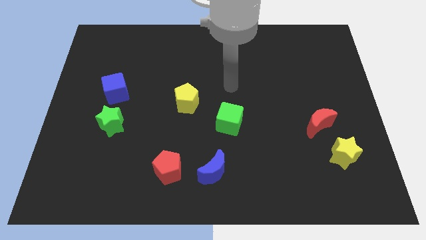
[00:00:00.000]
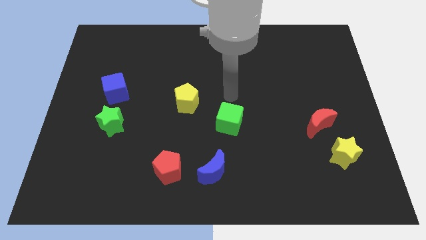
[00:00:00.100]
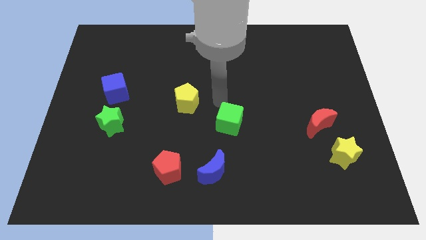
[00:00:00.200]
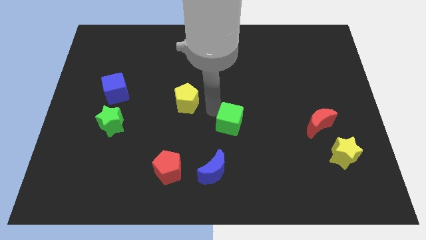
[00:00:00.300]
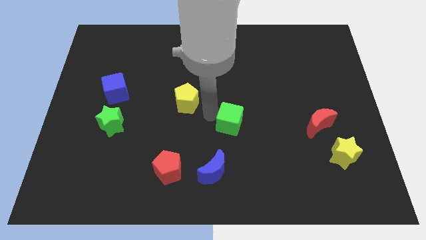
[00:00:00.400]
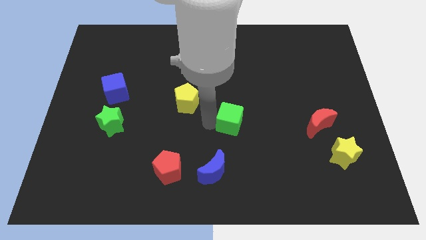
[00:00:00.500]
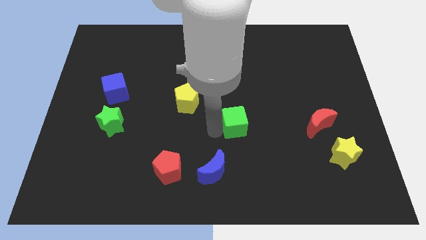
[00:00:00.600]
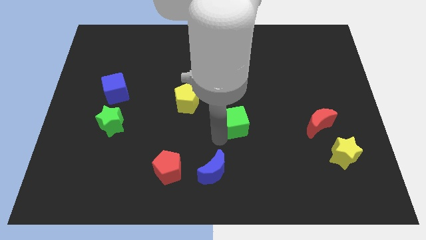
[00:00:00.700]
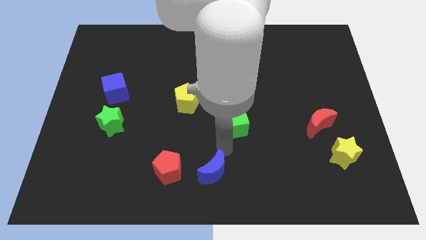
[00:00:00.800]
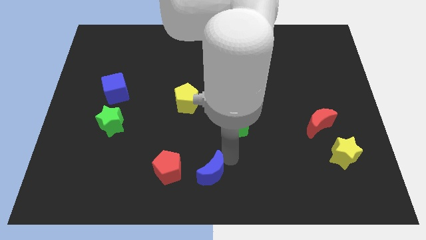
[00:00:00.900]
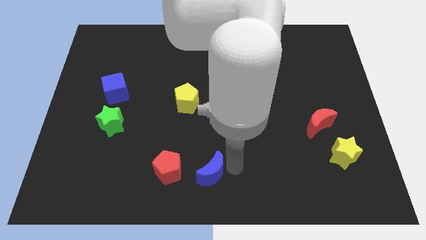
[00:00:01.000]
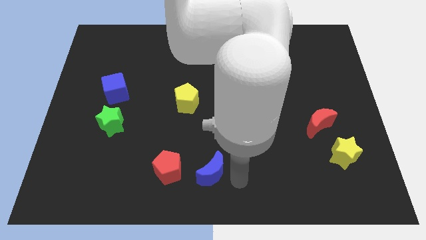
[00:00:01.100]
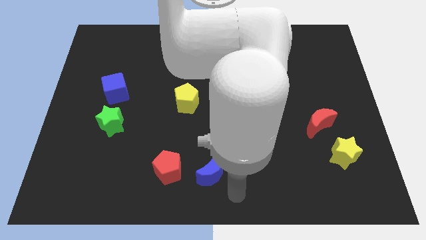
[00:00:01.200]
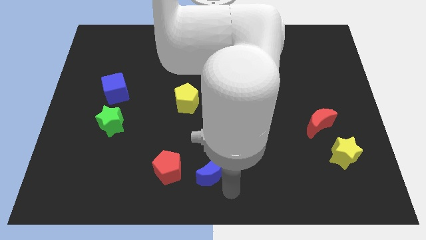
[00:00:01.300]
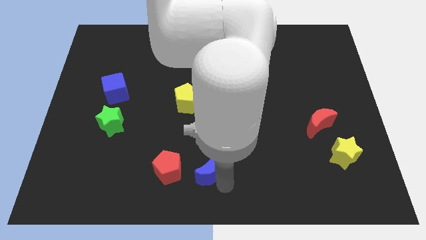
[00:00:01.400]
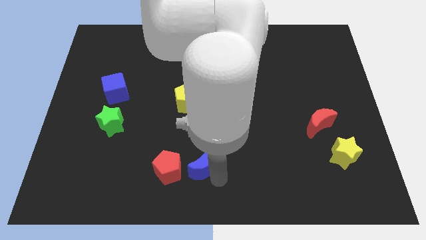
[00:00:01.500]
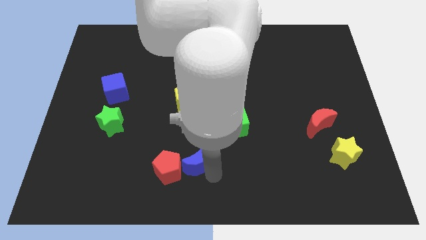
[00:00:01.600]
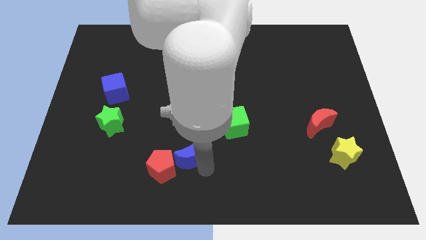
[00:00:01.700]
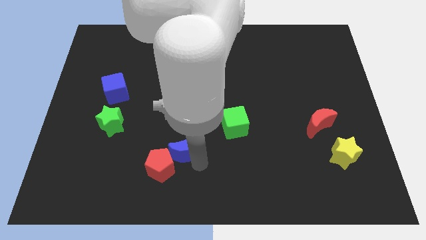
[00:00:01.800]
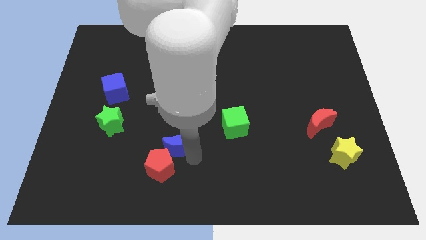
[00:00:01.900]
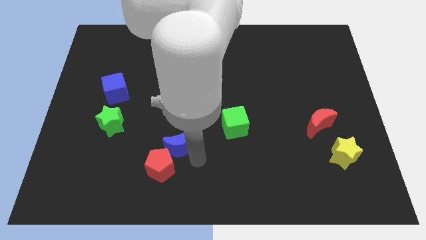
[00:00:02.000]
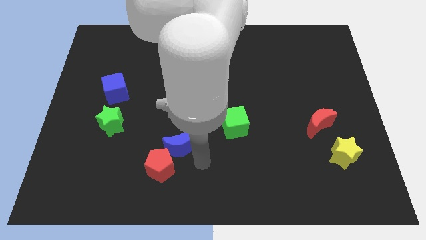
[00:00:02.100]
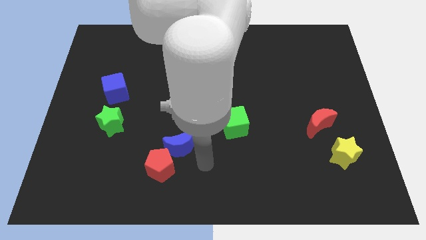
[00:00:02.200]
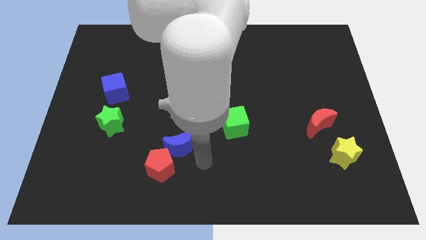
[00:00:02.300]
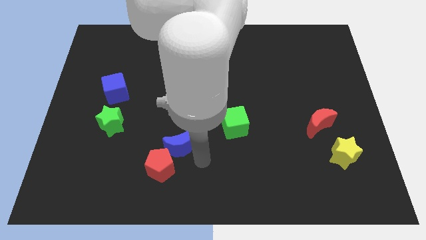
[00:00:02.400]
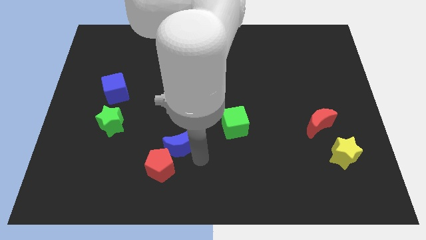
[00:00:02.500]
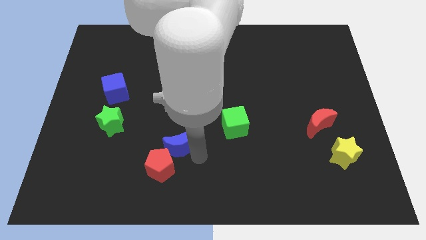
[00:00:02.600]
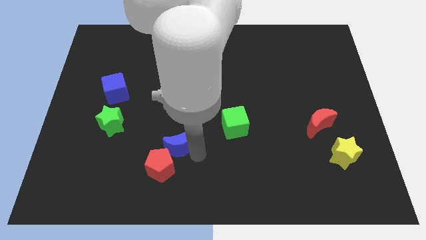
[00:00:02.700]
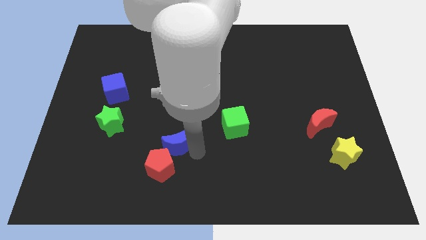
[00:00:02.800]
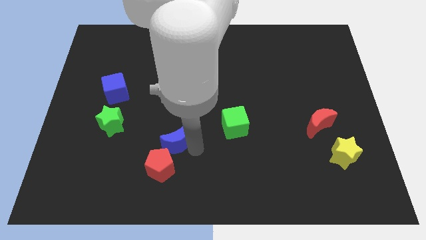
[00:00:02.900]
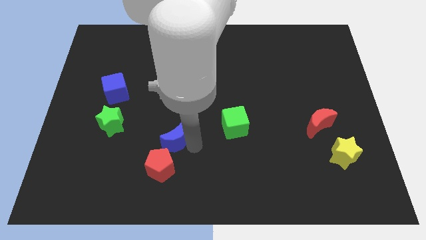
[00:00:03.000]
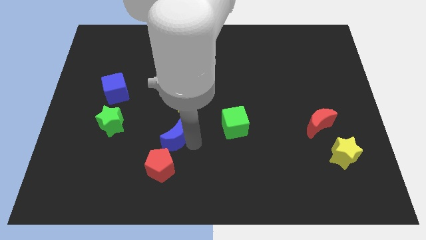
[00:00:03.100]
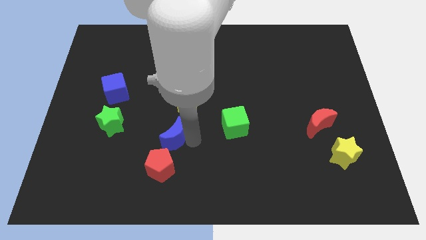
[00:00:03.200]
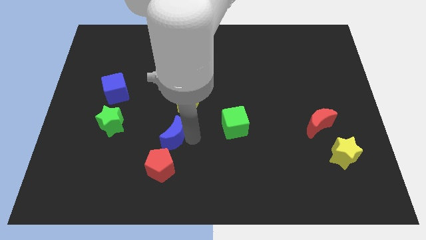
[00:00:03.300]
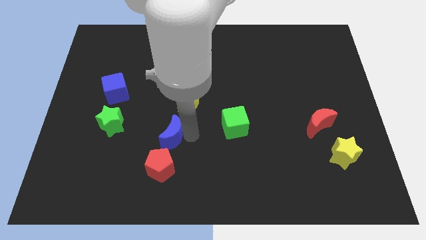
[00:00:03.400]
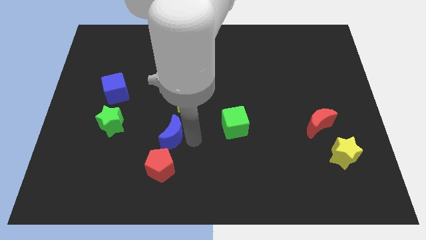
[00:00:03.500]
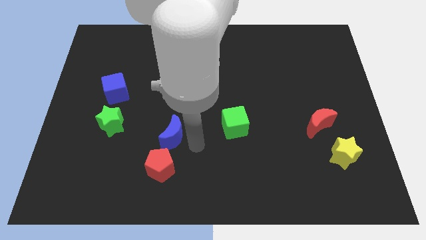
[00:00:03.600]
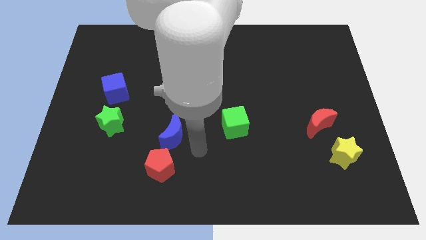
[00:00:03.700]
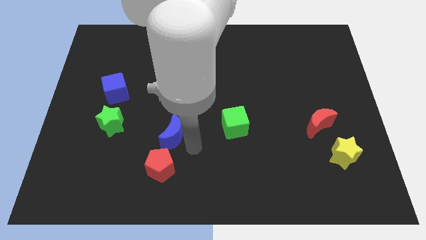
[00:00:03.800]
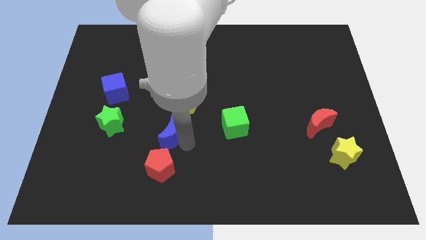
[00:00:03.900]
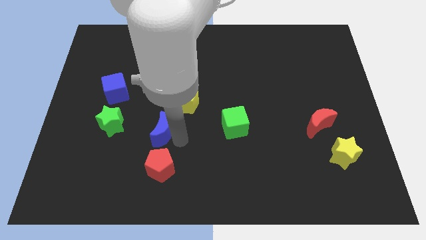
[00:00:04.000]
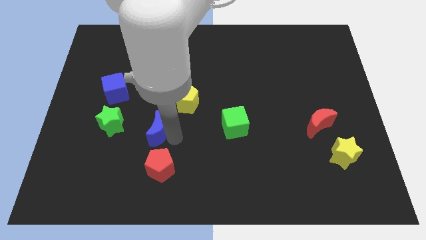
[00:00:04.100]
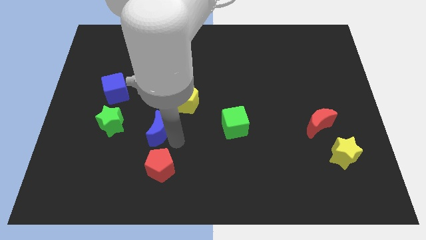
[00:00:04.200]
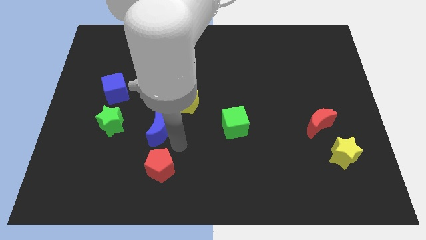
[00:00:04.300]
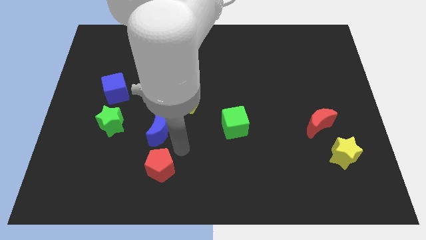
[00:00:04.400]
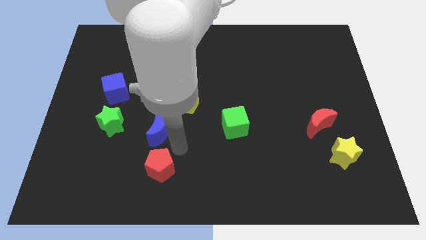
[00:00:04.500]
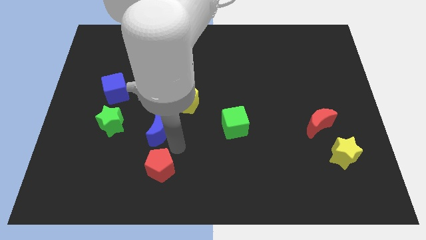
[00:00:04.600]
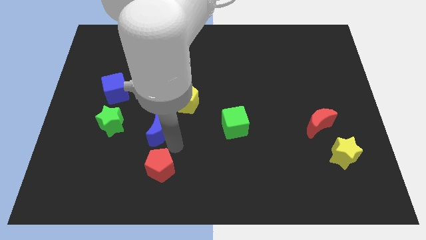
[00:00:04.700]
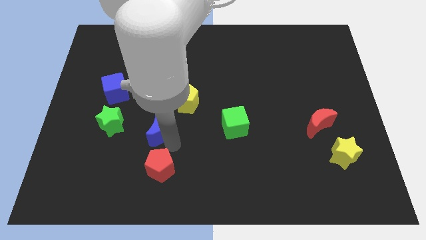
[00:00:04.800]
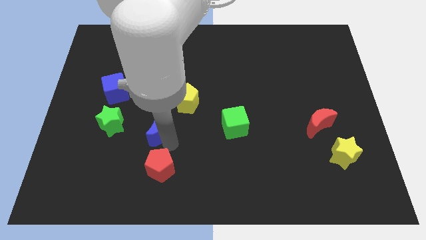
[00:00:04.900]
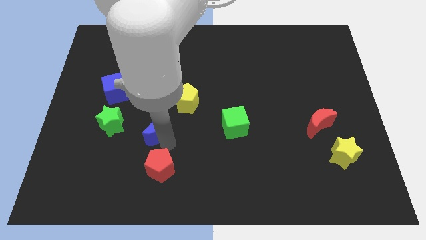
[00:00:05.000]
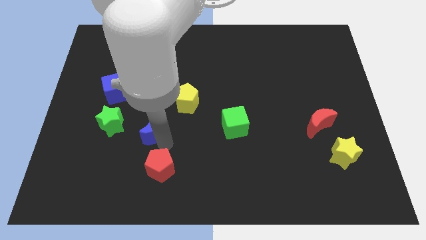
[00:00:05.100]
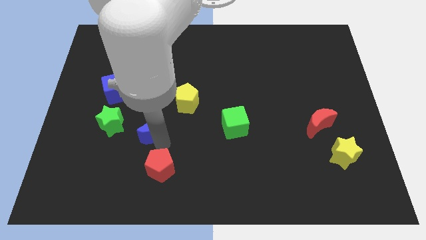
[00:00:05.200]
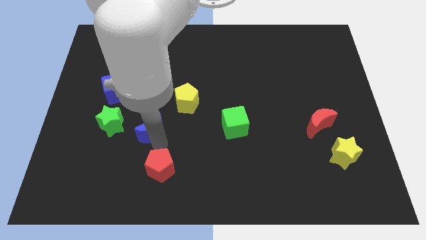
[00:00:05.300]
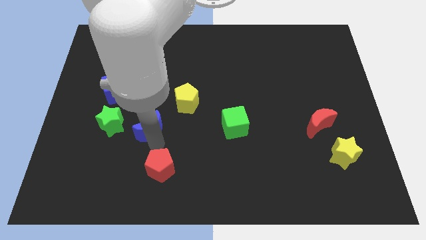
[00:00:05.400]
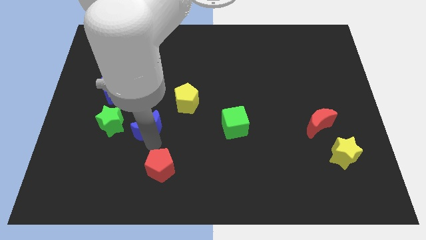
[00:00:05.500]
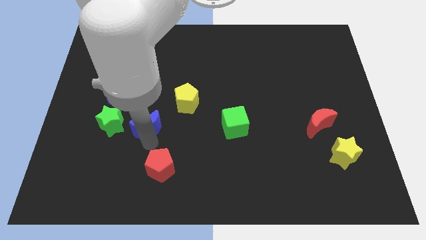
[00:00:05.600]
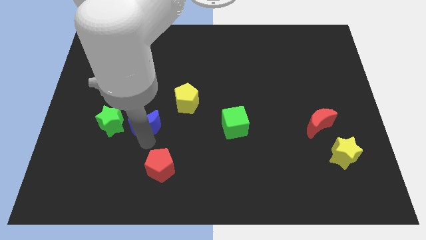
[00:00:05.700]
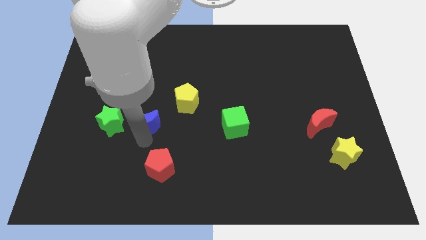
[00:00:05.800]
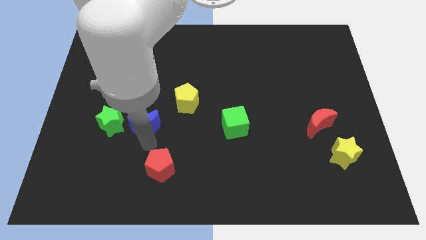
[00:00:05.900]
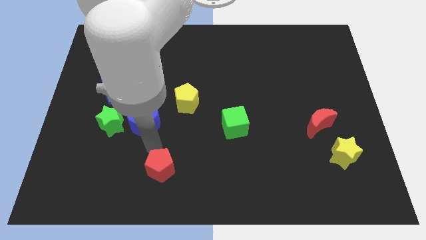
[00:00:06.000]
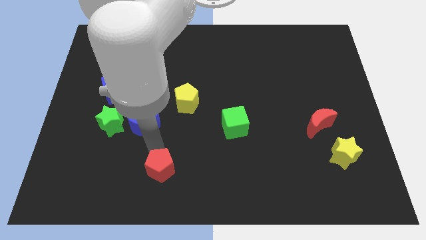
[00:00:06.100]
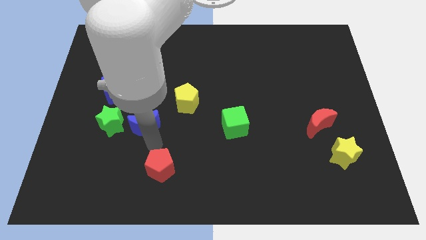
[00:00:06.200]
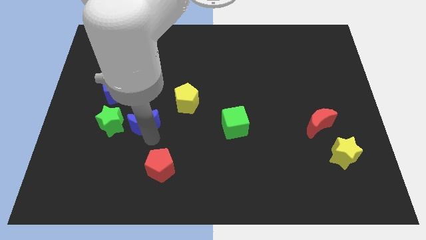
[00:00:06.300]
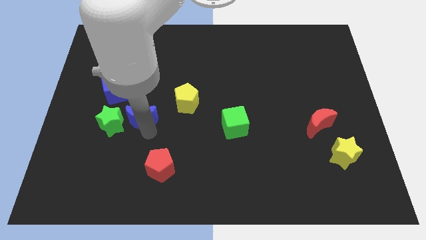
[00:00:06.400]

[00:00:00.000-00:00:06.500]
push the blue moon diagonally up and to the right of the green star

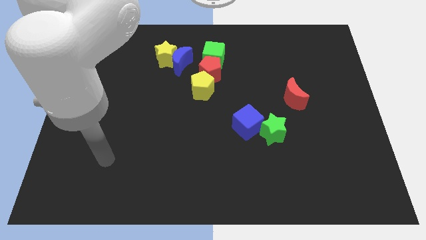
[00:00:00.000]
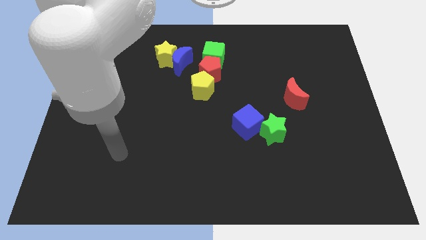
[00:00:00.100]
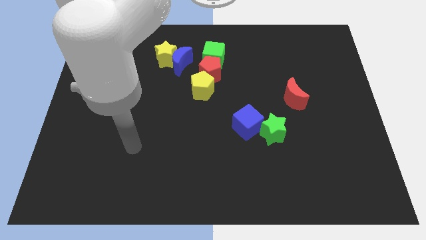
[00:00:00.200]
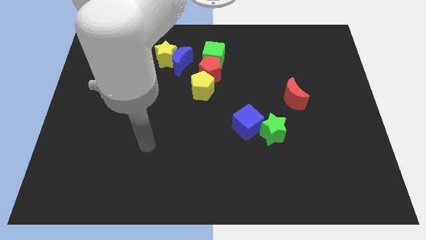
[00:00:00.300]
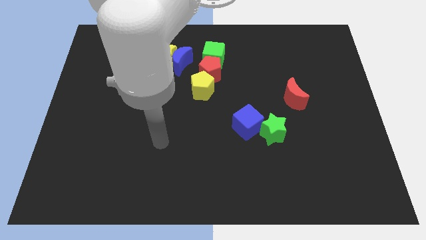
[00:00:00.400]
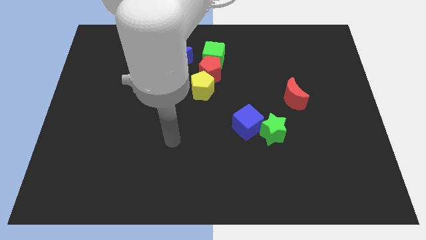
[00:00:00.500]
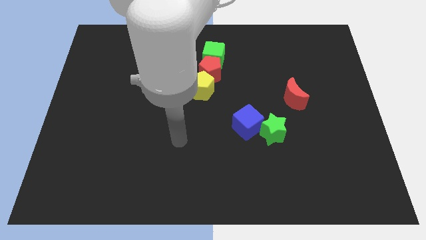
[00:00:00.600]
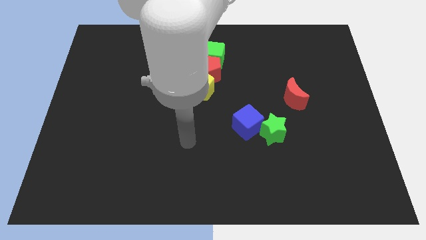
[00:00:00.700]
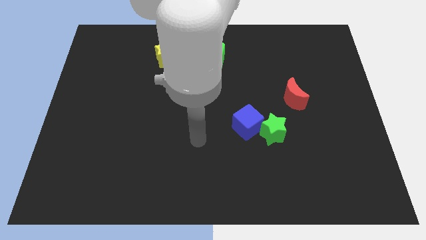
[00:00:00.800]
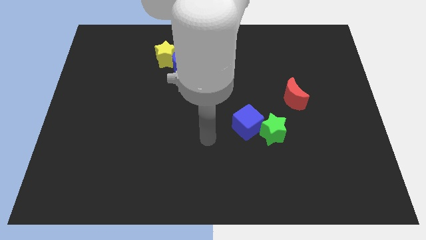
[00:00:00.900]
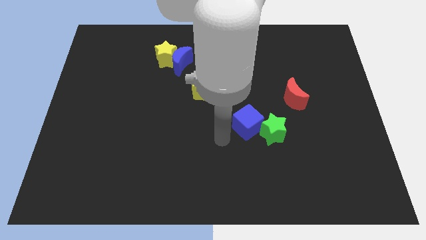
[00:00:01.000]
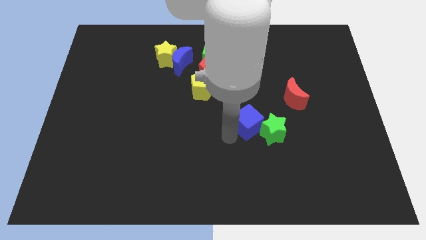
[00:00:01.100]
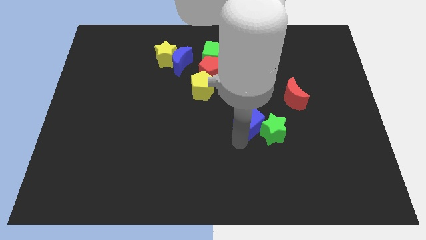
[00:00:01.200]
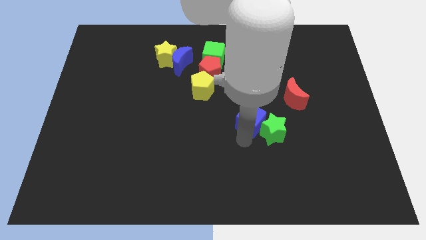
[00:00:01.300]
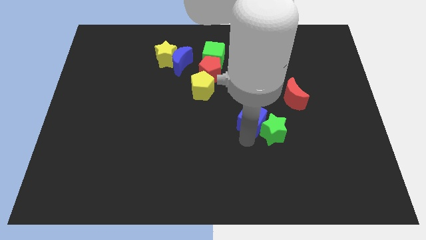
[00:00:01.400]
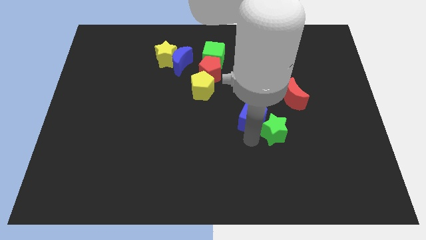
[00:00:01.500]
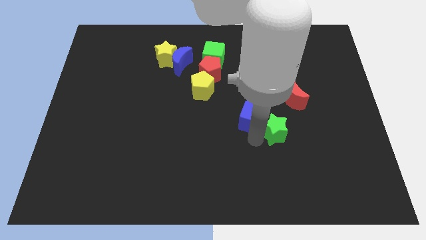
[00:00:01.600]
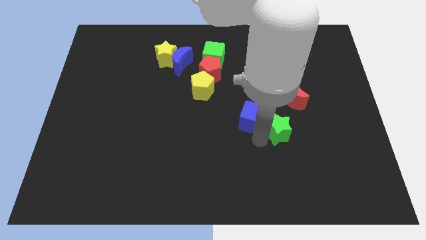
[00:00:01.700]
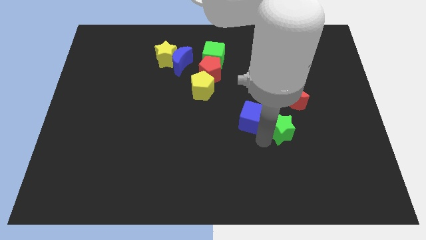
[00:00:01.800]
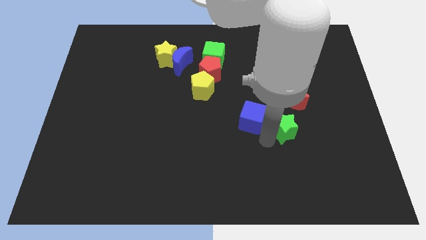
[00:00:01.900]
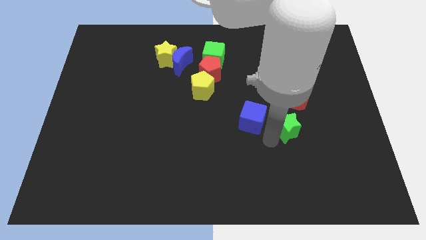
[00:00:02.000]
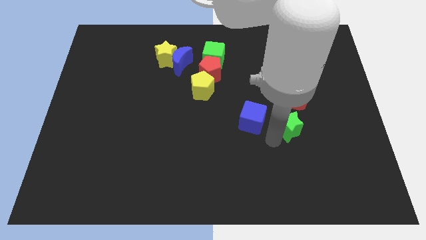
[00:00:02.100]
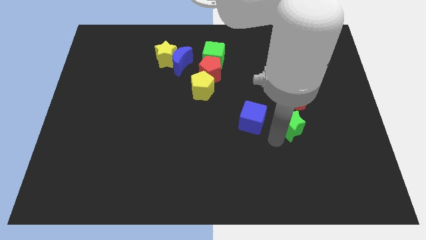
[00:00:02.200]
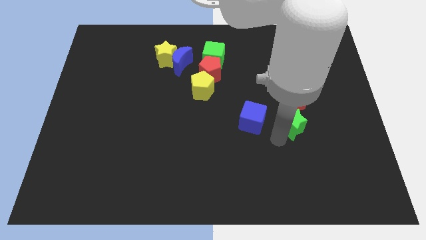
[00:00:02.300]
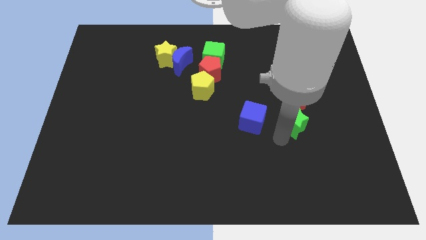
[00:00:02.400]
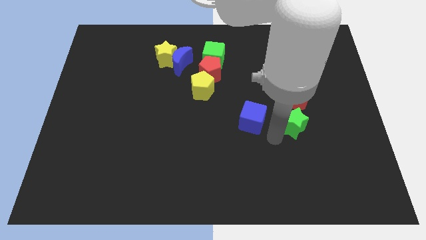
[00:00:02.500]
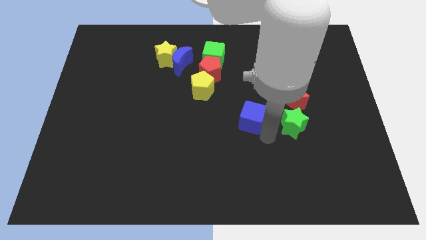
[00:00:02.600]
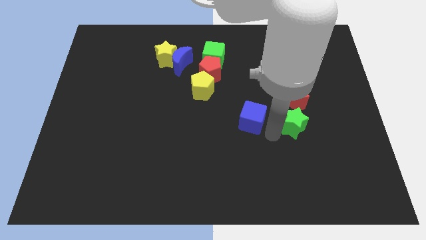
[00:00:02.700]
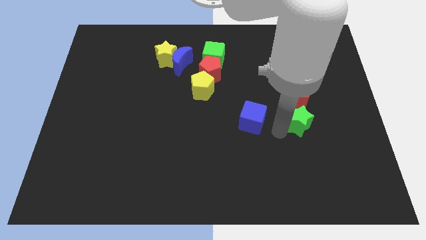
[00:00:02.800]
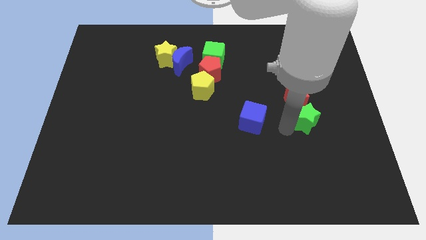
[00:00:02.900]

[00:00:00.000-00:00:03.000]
push the green star diagonally down and to the right of the red moon
